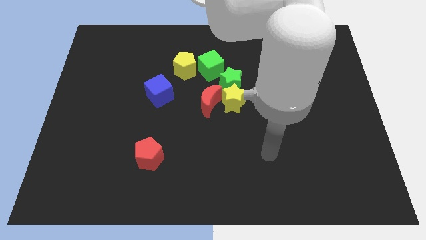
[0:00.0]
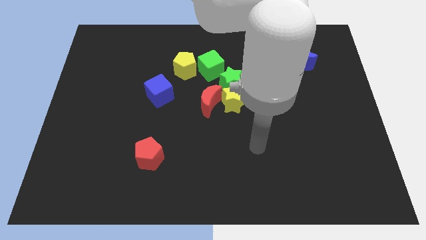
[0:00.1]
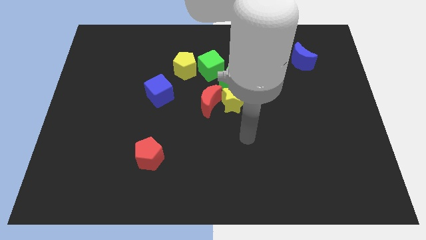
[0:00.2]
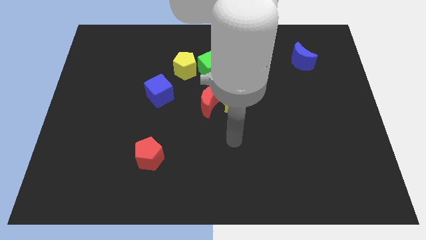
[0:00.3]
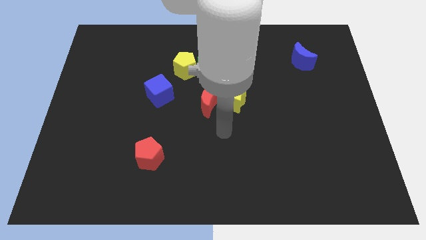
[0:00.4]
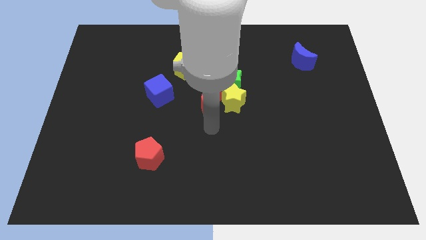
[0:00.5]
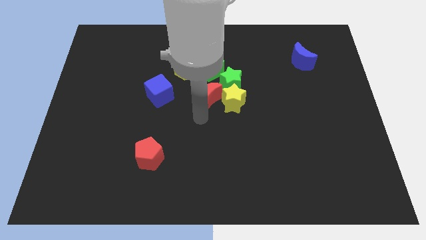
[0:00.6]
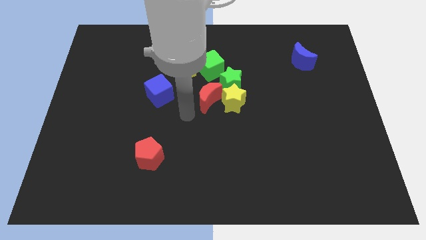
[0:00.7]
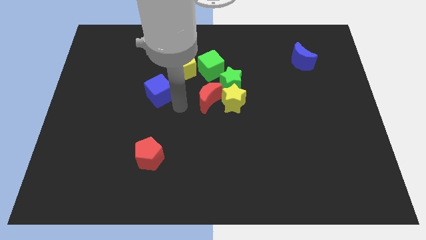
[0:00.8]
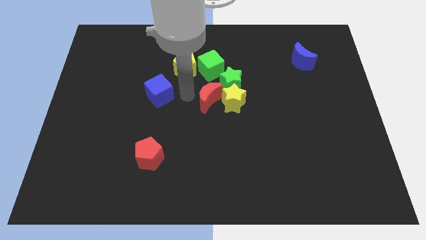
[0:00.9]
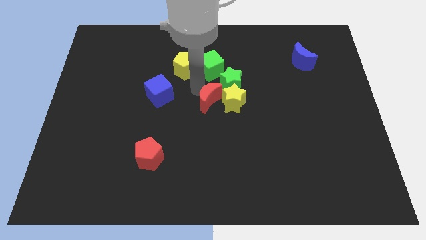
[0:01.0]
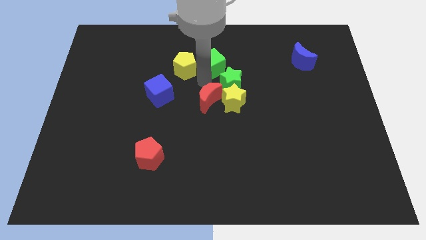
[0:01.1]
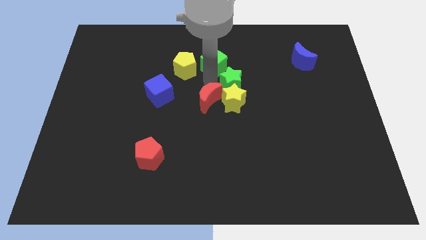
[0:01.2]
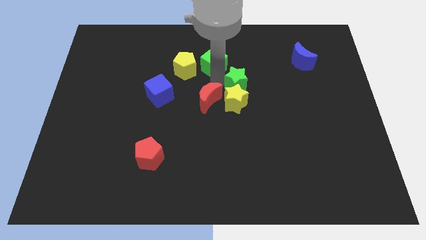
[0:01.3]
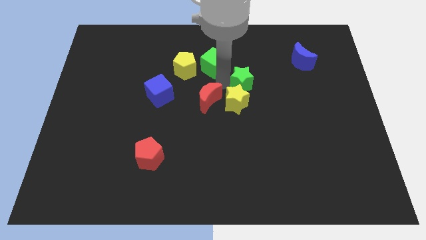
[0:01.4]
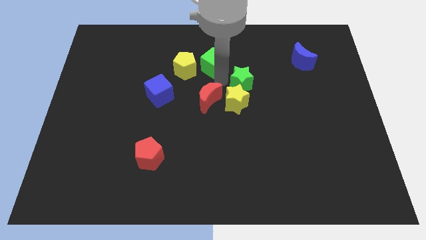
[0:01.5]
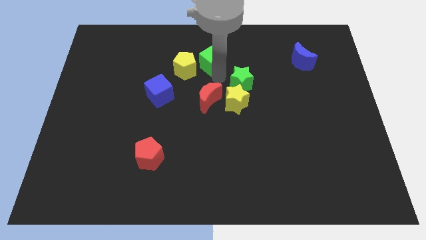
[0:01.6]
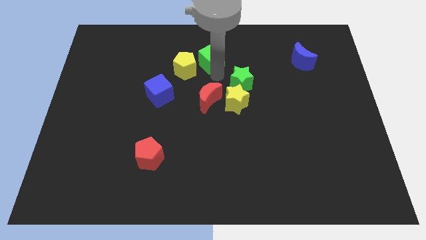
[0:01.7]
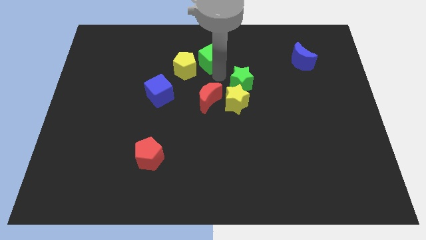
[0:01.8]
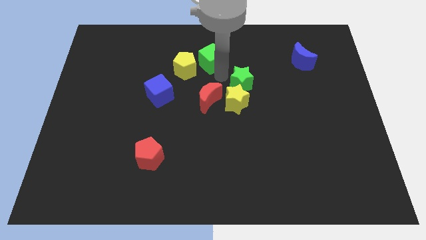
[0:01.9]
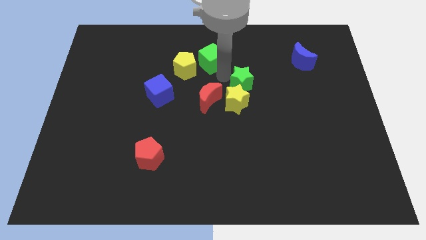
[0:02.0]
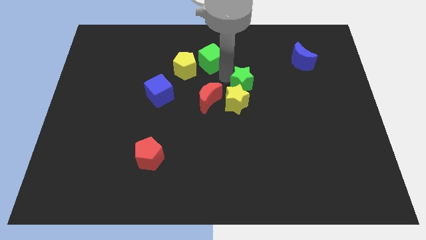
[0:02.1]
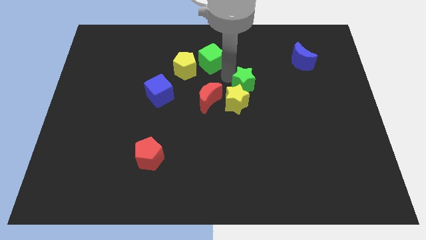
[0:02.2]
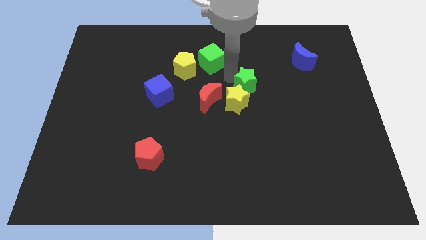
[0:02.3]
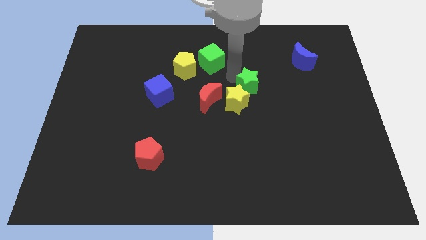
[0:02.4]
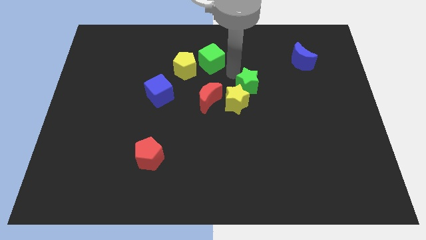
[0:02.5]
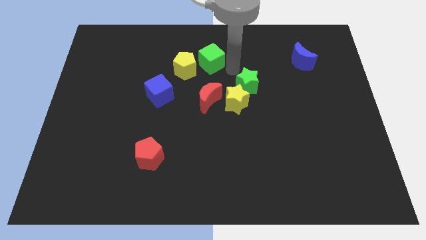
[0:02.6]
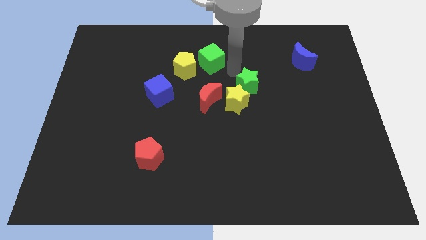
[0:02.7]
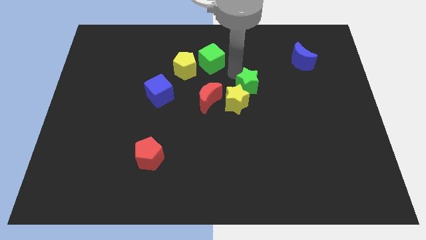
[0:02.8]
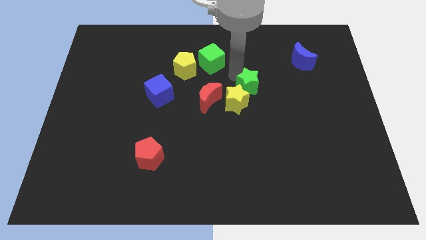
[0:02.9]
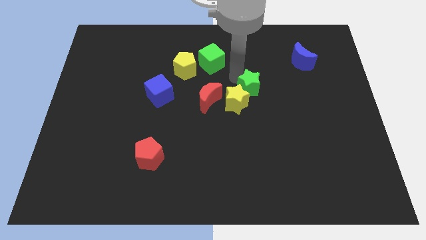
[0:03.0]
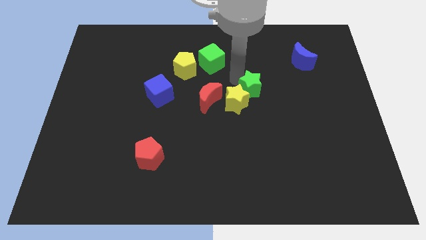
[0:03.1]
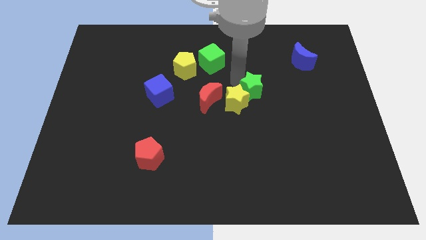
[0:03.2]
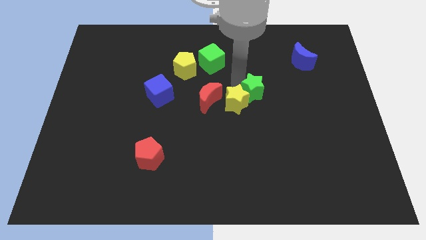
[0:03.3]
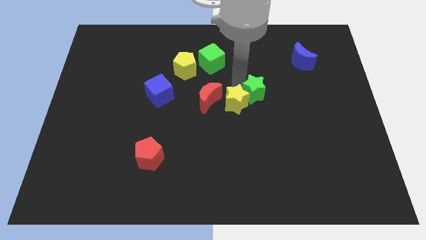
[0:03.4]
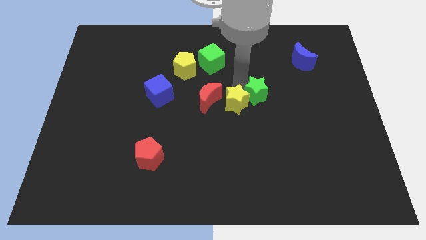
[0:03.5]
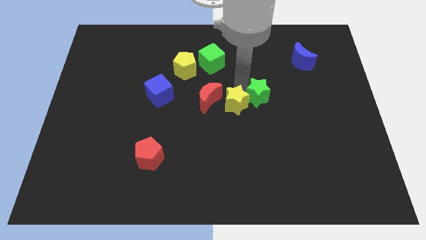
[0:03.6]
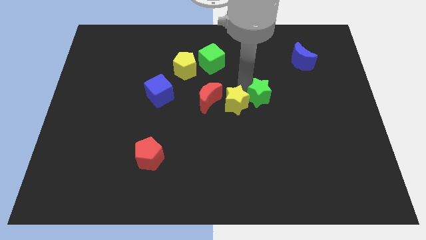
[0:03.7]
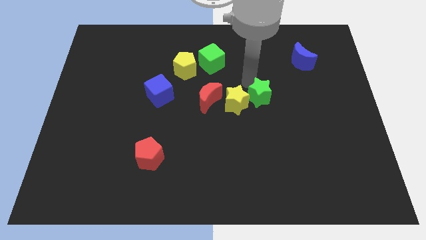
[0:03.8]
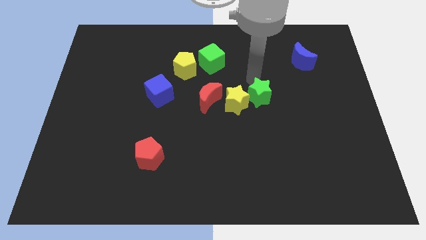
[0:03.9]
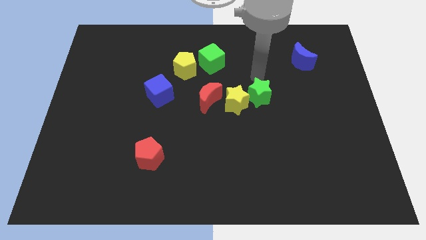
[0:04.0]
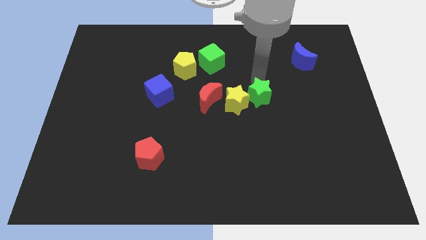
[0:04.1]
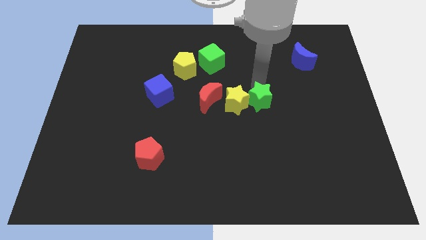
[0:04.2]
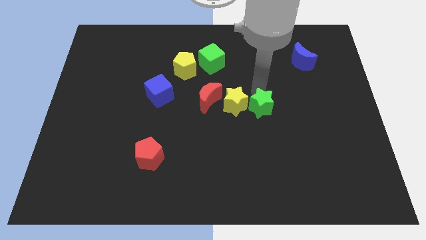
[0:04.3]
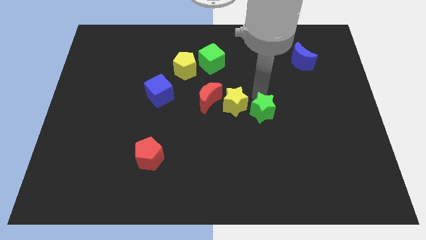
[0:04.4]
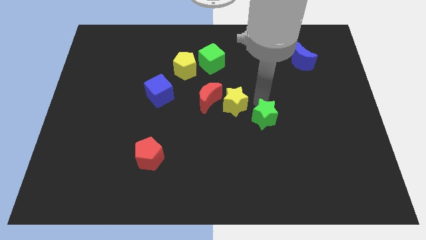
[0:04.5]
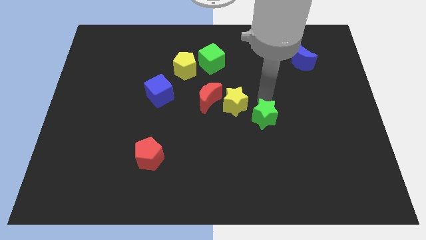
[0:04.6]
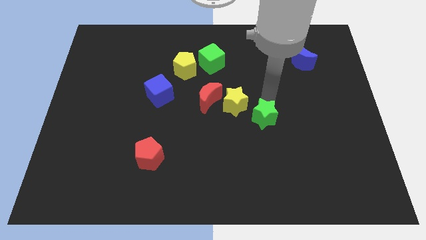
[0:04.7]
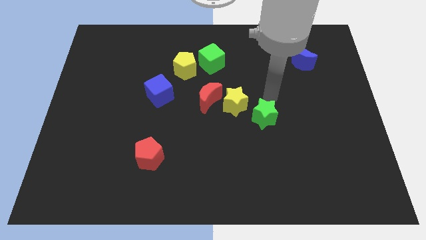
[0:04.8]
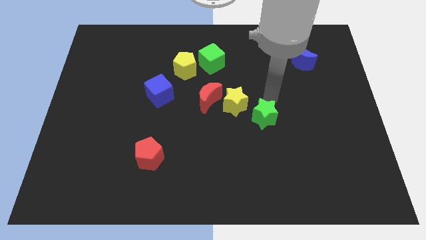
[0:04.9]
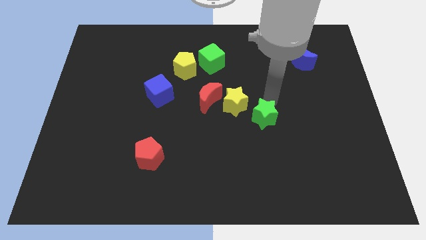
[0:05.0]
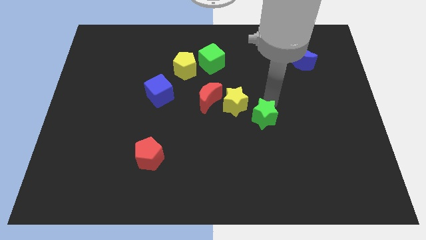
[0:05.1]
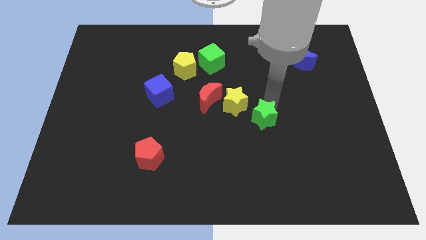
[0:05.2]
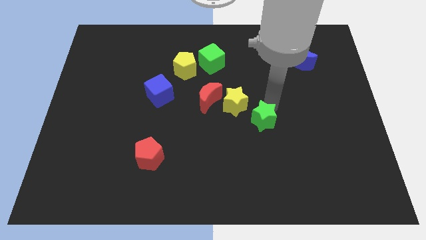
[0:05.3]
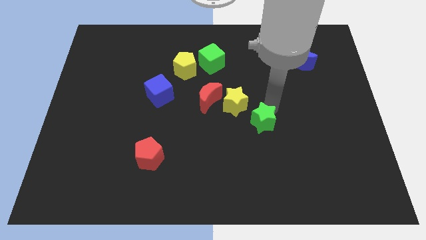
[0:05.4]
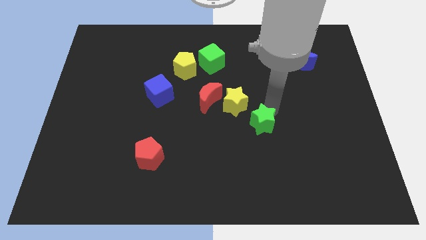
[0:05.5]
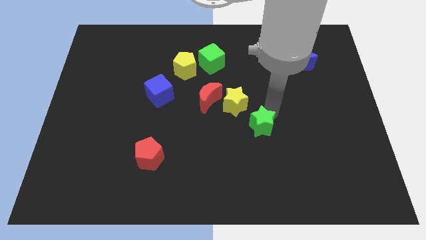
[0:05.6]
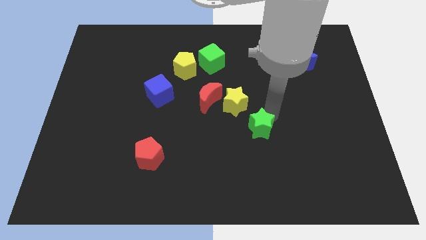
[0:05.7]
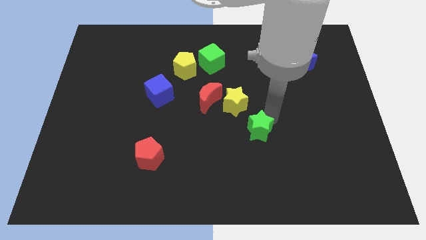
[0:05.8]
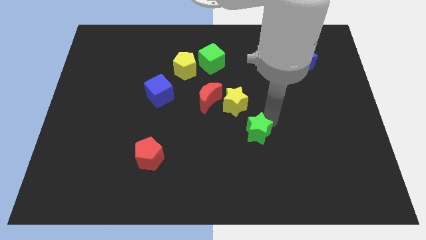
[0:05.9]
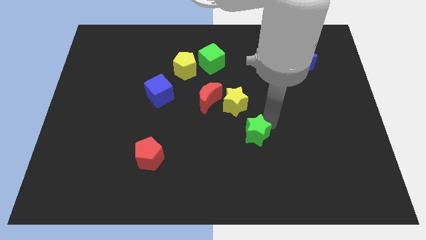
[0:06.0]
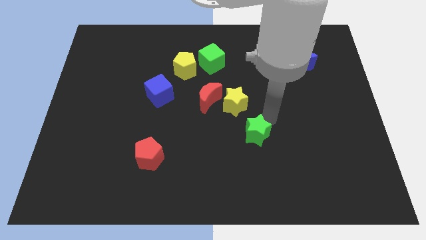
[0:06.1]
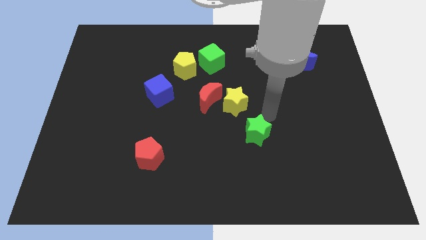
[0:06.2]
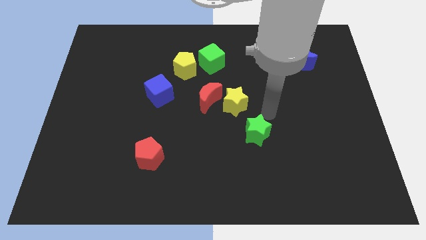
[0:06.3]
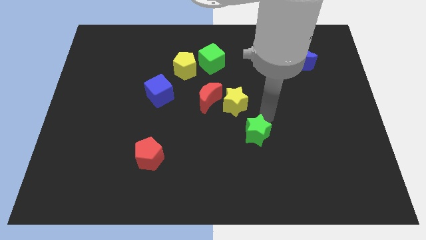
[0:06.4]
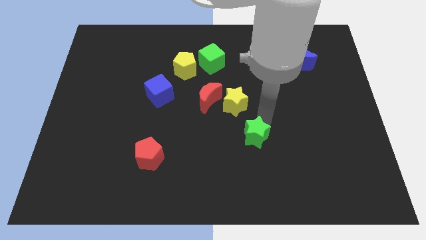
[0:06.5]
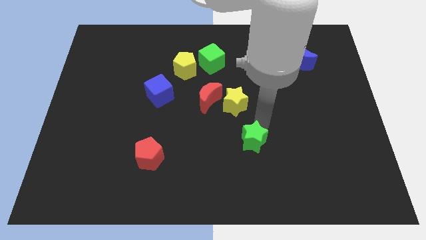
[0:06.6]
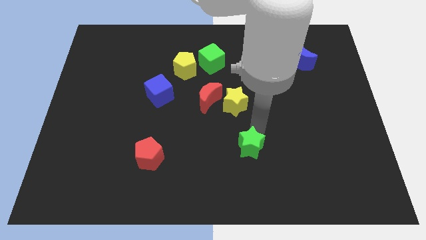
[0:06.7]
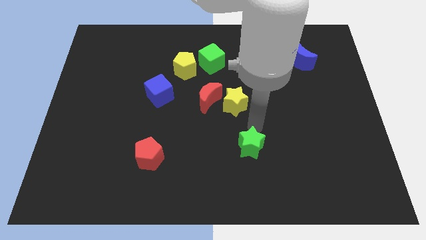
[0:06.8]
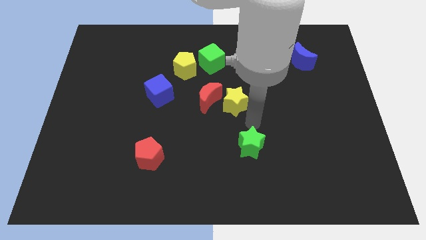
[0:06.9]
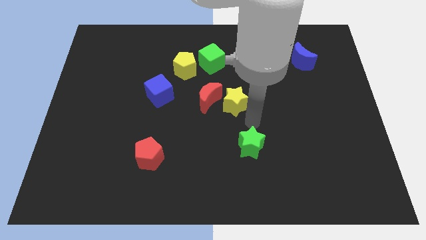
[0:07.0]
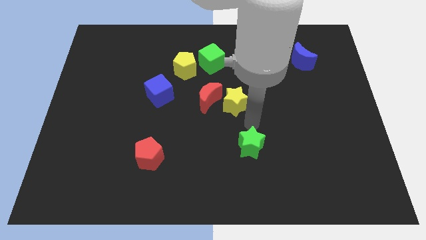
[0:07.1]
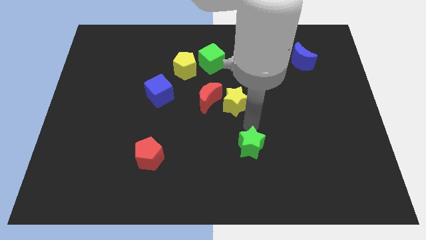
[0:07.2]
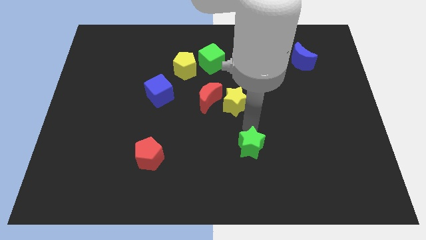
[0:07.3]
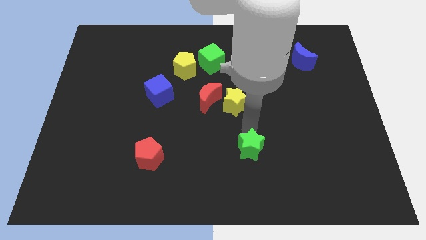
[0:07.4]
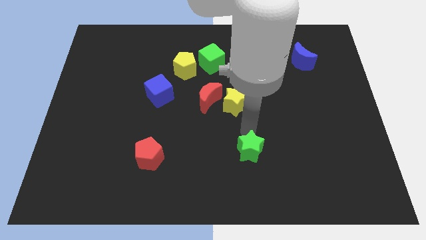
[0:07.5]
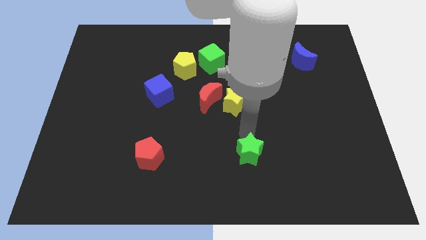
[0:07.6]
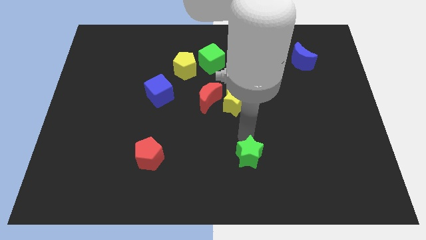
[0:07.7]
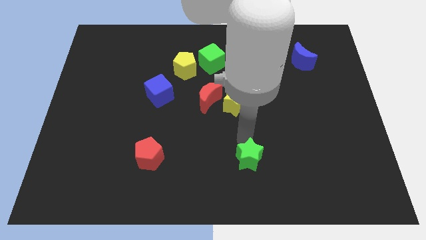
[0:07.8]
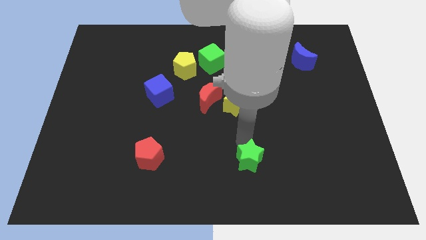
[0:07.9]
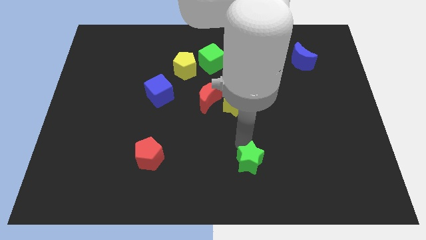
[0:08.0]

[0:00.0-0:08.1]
slide the green star to the bottom
